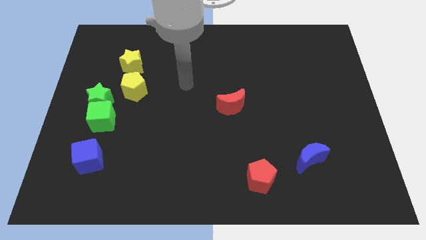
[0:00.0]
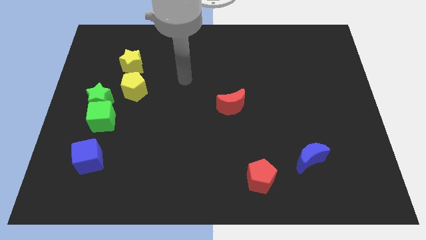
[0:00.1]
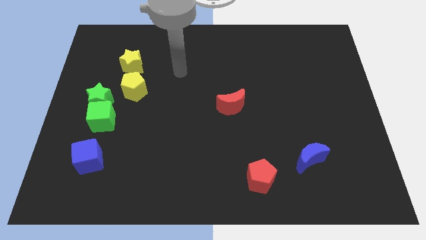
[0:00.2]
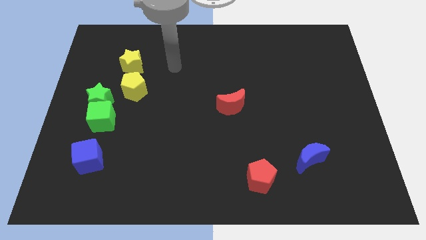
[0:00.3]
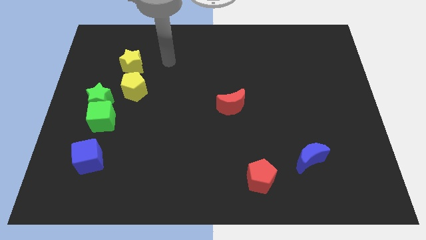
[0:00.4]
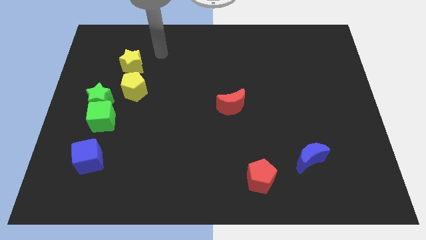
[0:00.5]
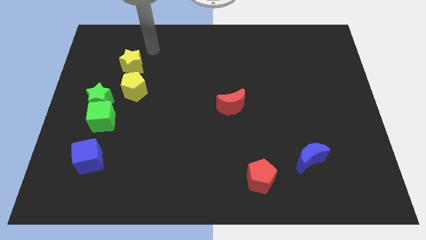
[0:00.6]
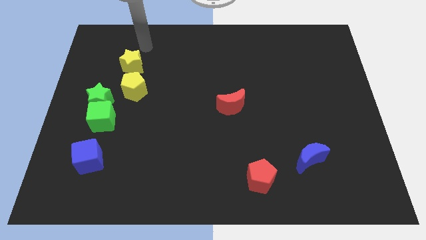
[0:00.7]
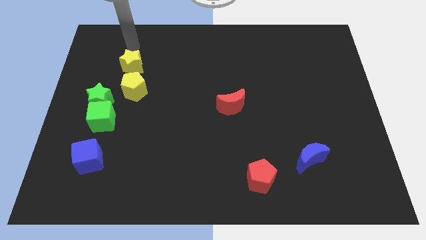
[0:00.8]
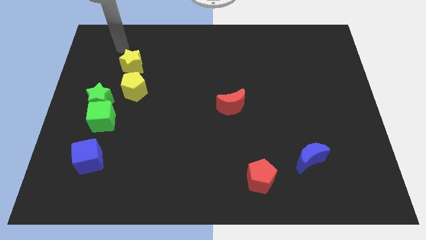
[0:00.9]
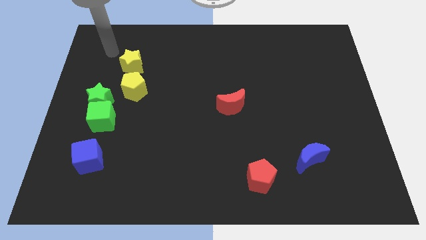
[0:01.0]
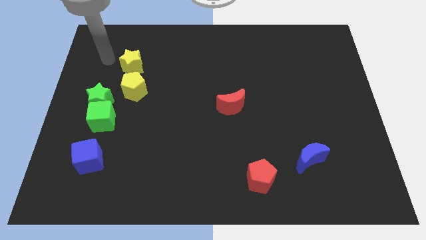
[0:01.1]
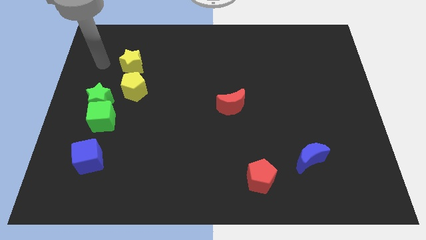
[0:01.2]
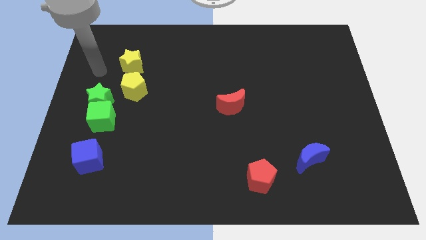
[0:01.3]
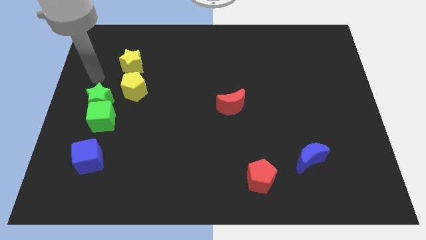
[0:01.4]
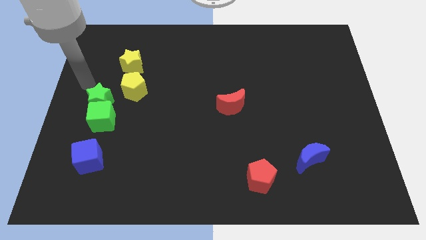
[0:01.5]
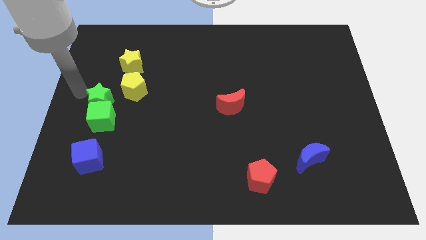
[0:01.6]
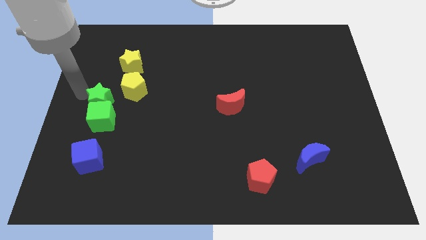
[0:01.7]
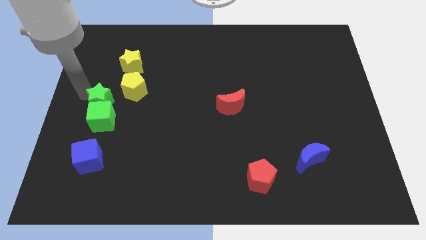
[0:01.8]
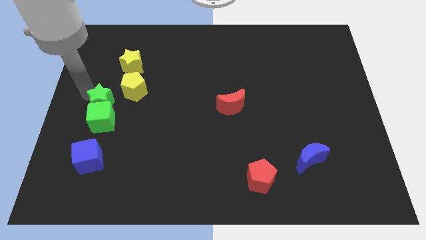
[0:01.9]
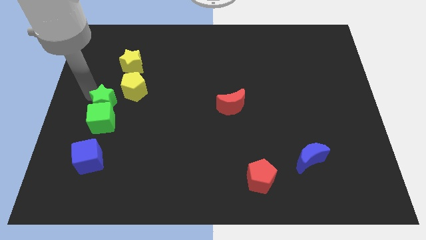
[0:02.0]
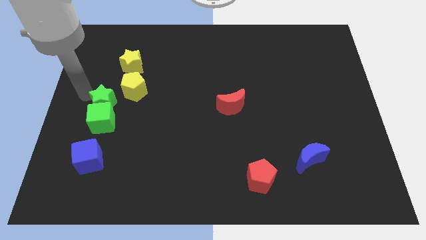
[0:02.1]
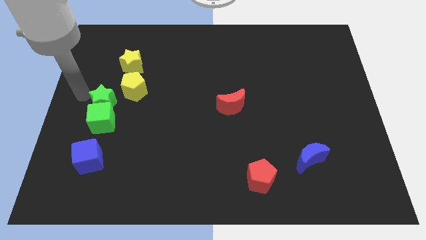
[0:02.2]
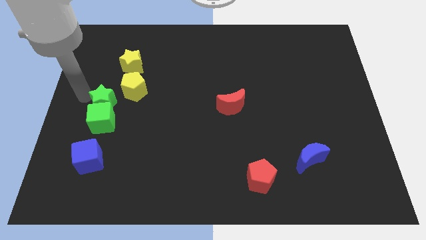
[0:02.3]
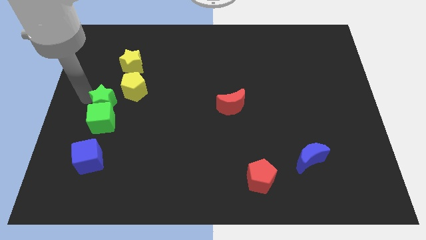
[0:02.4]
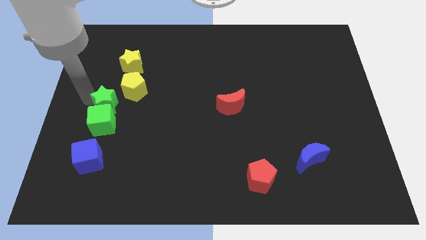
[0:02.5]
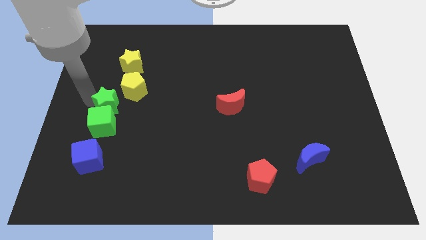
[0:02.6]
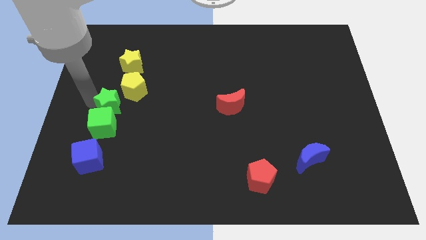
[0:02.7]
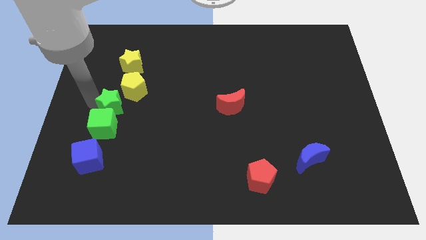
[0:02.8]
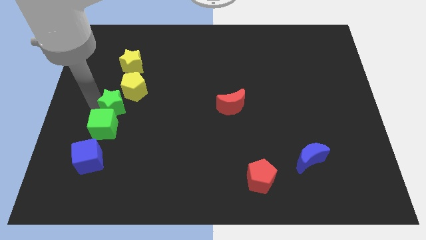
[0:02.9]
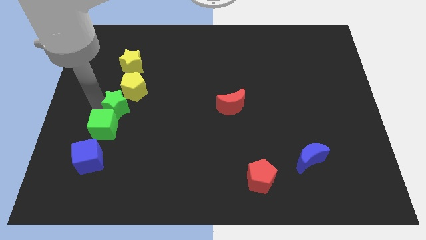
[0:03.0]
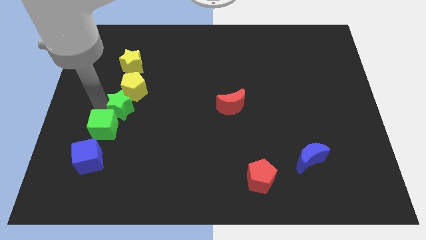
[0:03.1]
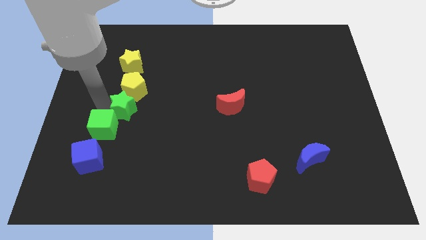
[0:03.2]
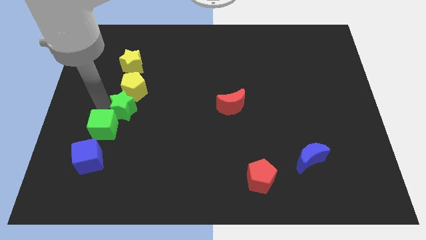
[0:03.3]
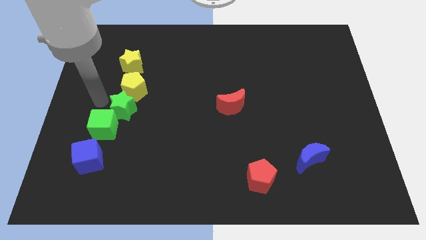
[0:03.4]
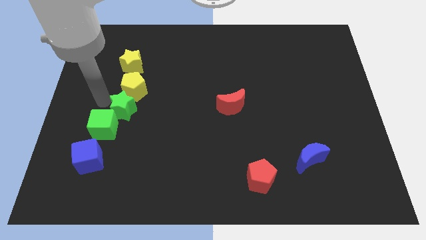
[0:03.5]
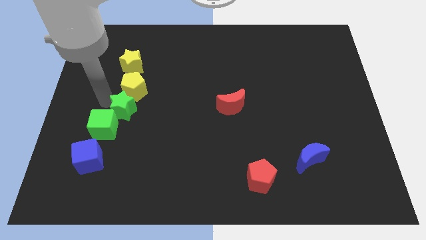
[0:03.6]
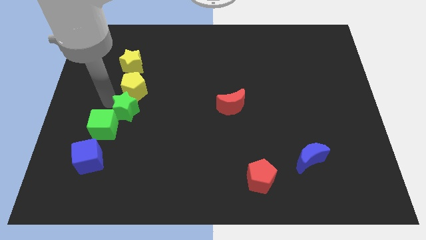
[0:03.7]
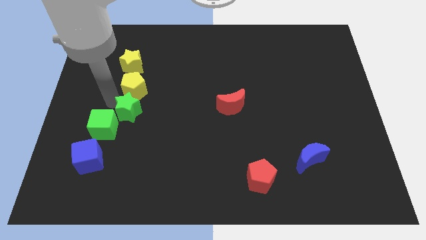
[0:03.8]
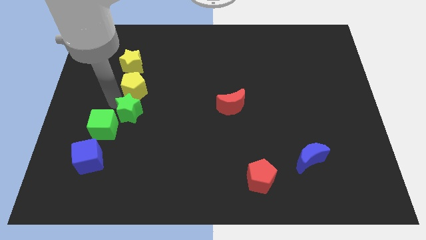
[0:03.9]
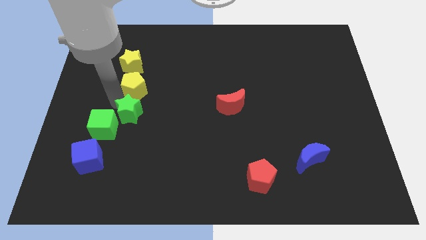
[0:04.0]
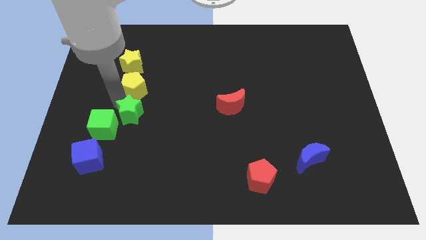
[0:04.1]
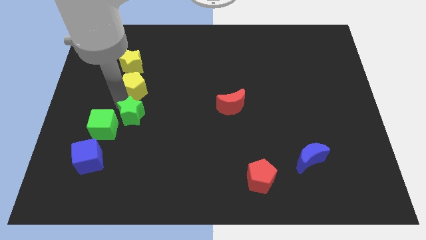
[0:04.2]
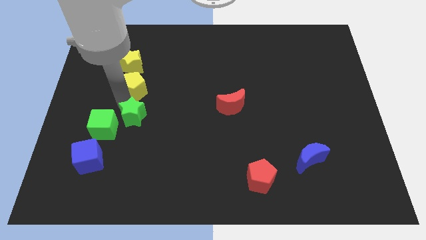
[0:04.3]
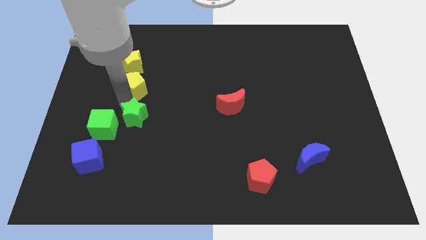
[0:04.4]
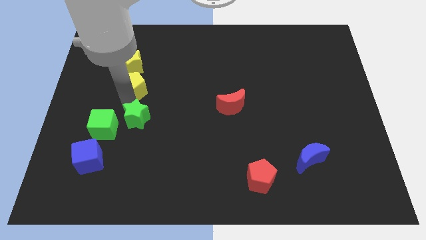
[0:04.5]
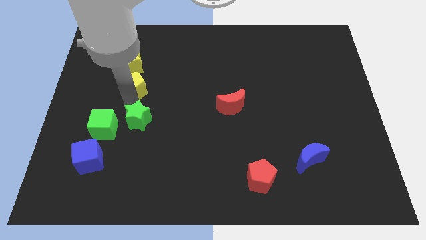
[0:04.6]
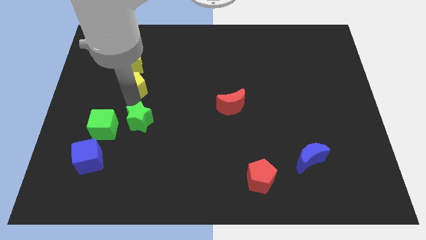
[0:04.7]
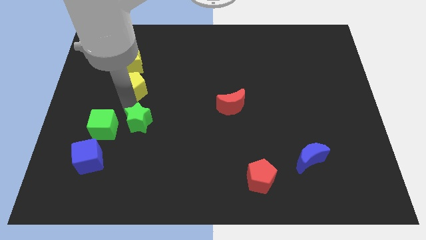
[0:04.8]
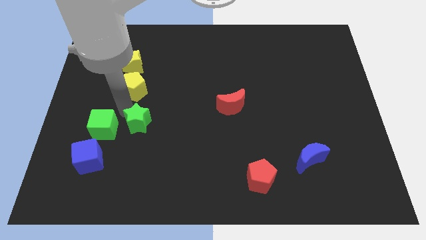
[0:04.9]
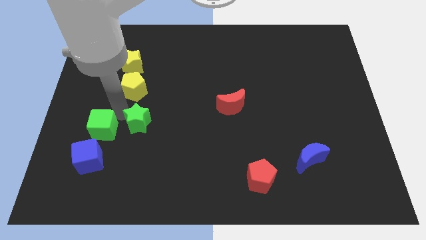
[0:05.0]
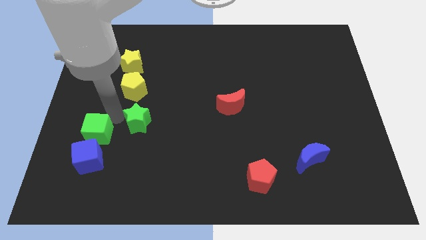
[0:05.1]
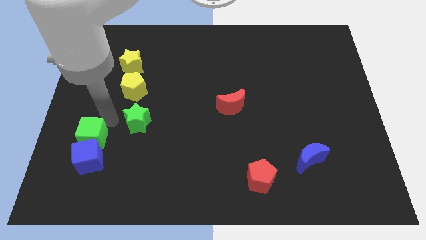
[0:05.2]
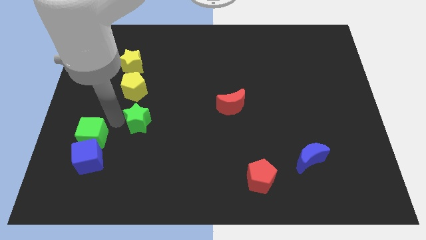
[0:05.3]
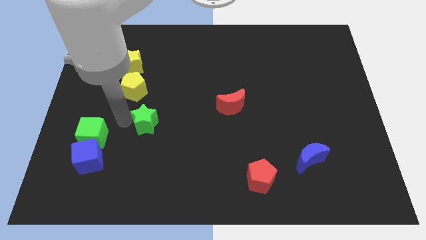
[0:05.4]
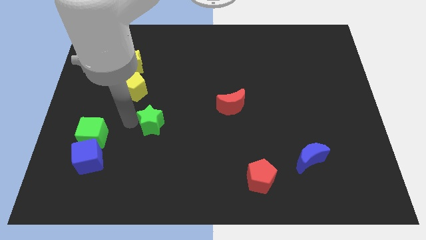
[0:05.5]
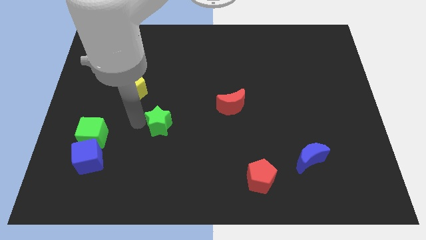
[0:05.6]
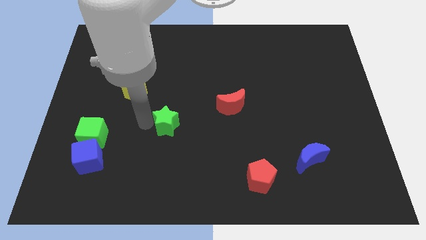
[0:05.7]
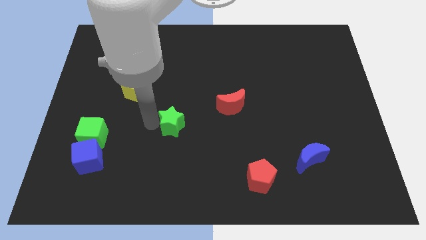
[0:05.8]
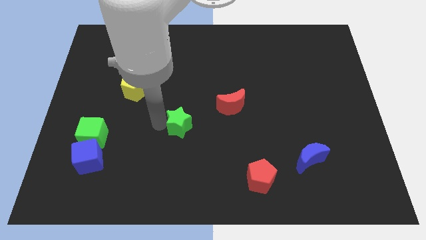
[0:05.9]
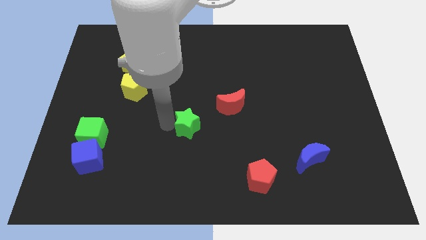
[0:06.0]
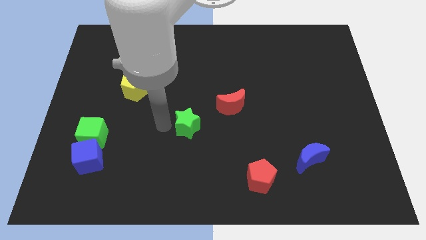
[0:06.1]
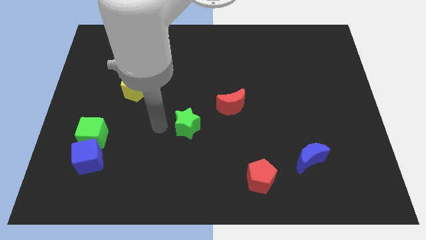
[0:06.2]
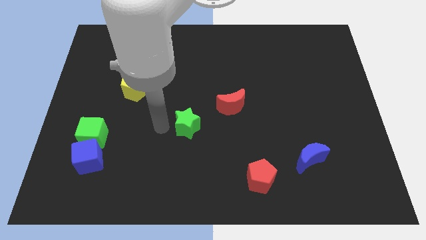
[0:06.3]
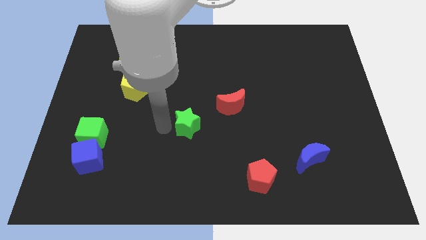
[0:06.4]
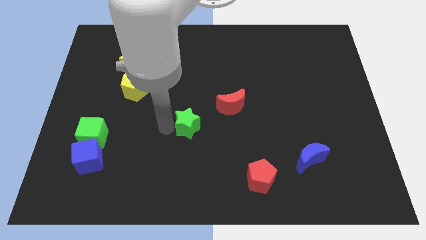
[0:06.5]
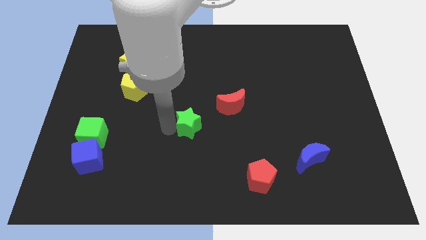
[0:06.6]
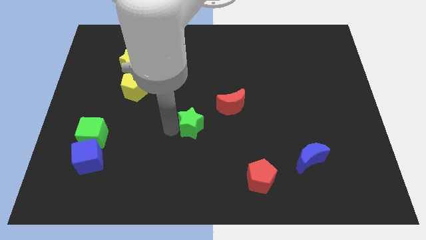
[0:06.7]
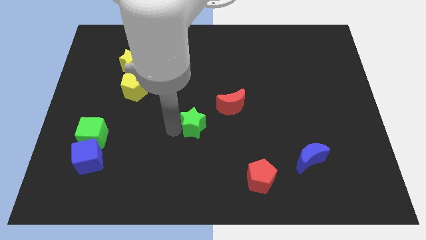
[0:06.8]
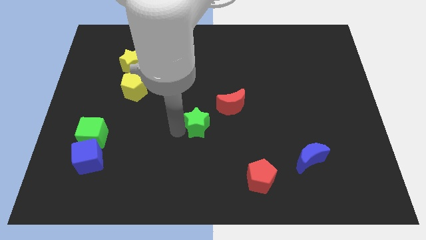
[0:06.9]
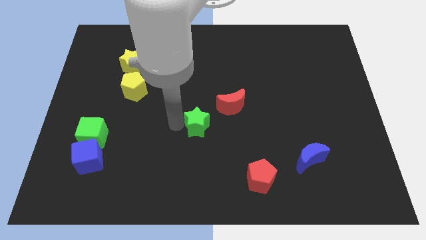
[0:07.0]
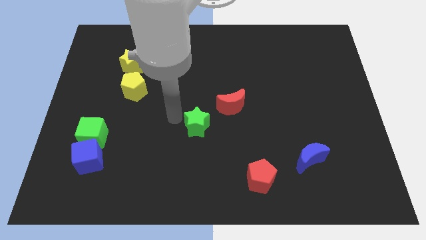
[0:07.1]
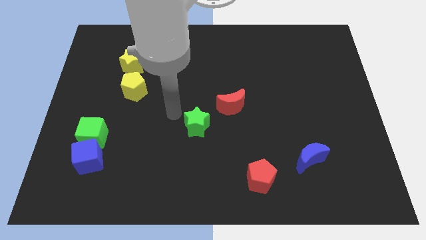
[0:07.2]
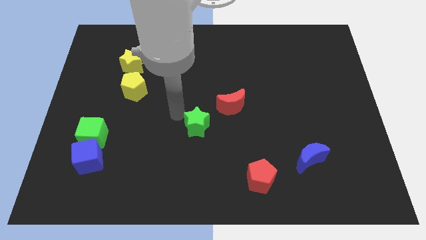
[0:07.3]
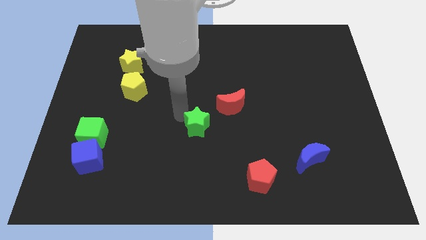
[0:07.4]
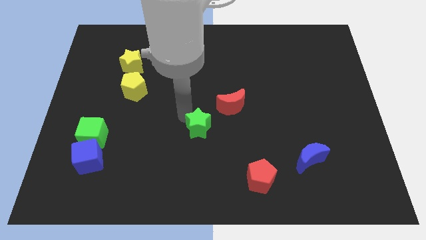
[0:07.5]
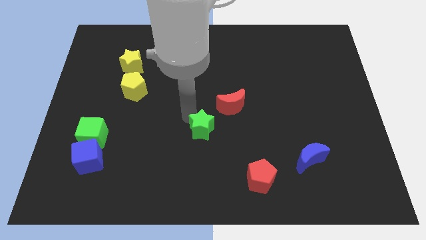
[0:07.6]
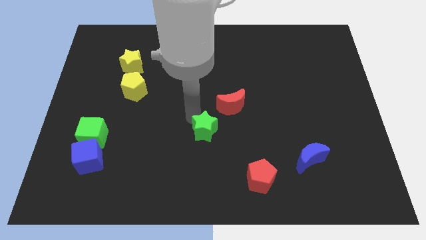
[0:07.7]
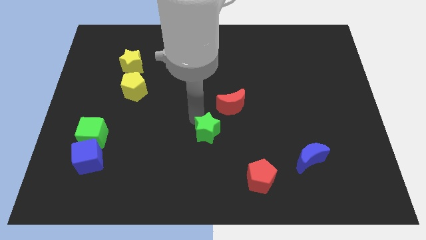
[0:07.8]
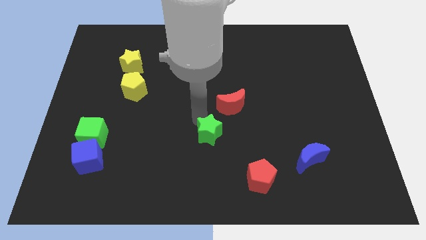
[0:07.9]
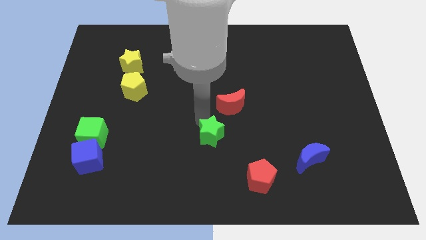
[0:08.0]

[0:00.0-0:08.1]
slide the green star to the bottom side of the red moon
